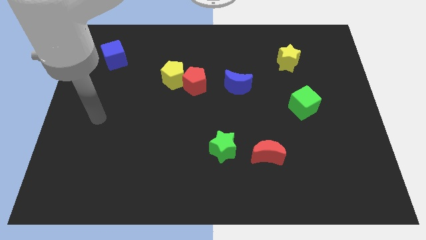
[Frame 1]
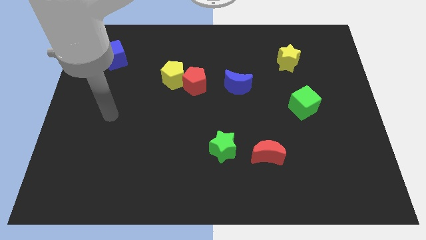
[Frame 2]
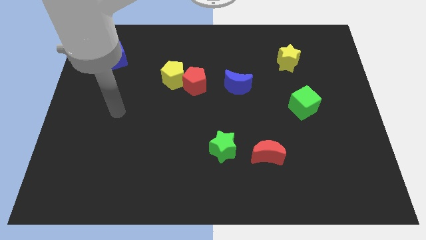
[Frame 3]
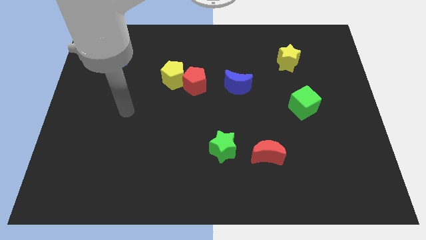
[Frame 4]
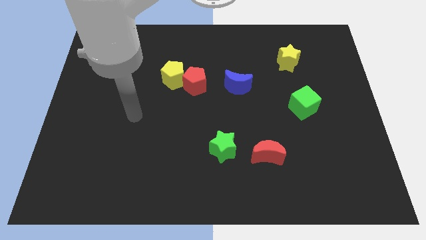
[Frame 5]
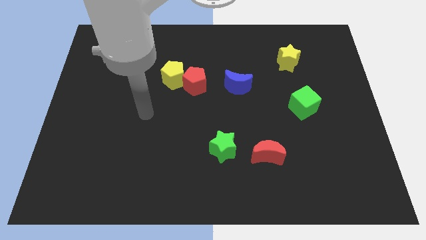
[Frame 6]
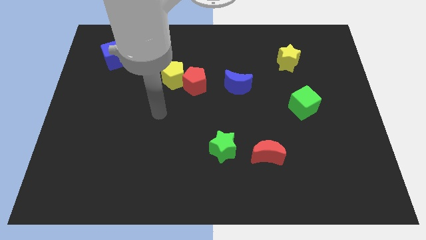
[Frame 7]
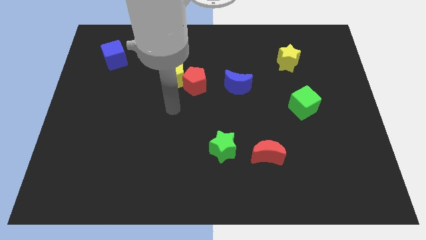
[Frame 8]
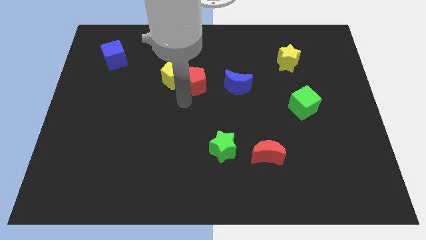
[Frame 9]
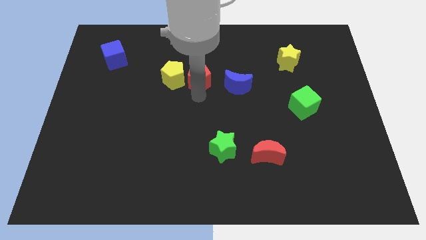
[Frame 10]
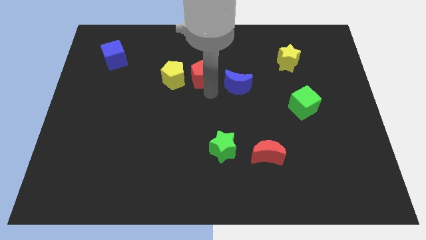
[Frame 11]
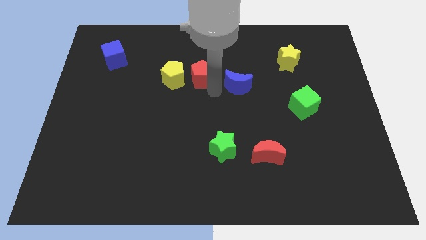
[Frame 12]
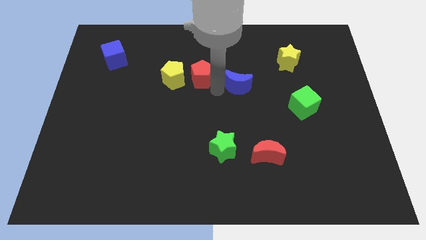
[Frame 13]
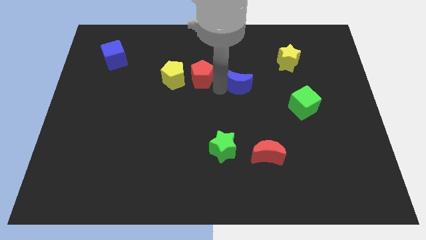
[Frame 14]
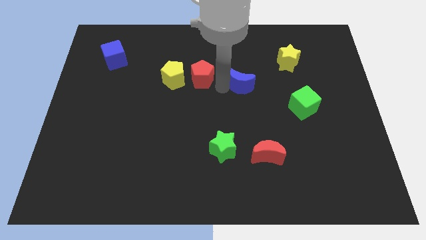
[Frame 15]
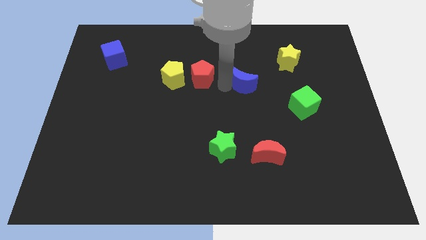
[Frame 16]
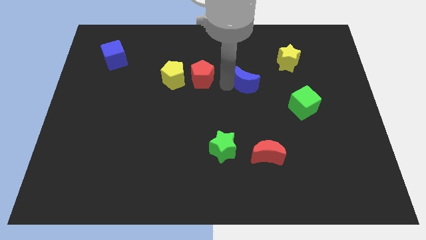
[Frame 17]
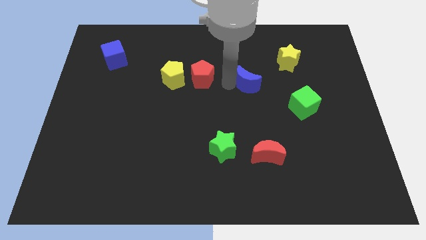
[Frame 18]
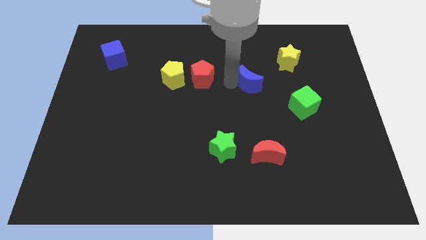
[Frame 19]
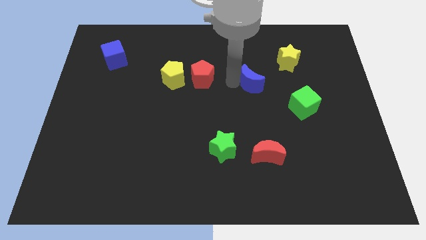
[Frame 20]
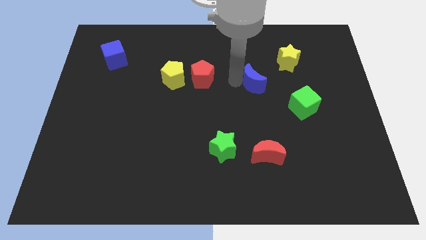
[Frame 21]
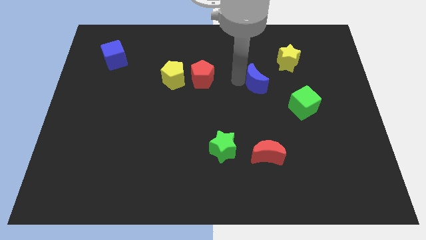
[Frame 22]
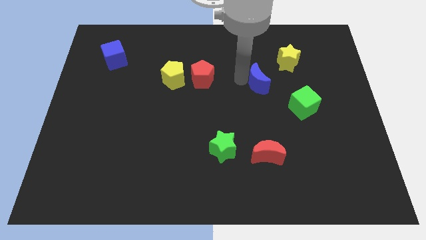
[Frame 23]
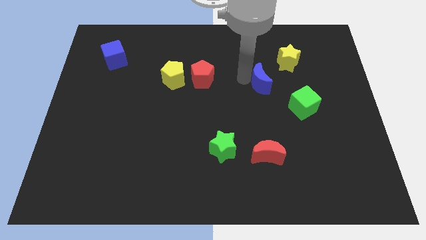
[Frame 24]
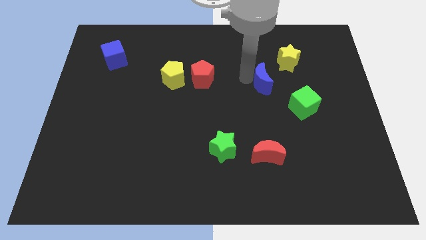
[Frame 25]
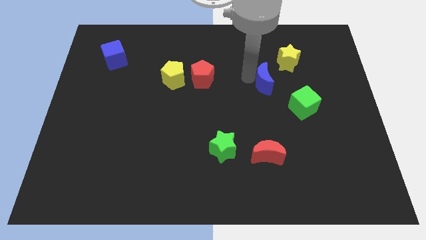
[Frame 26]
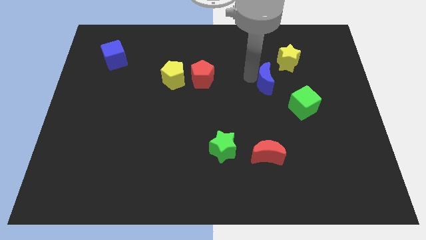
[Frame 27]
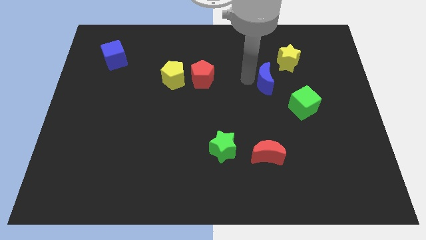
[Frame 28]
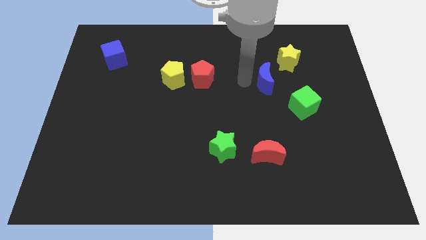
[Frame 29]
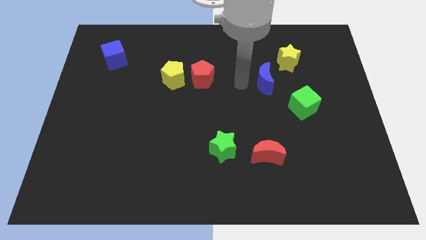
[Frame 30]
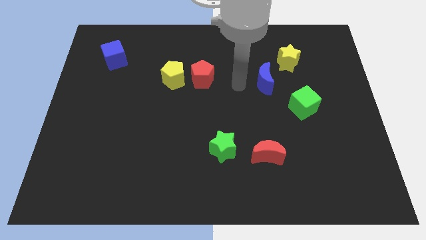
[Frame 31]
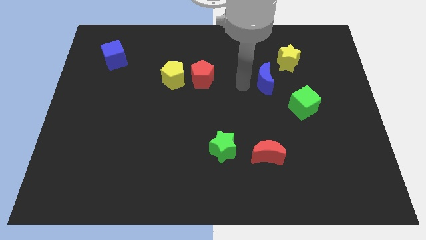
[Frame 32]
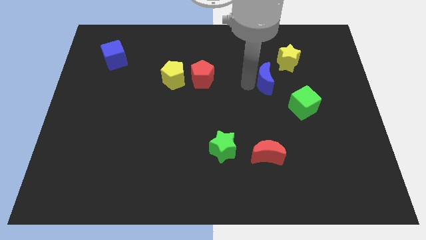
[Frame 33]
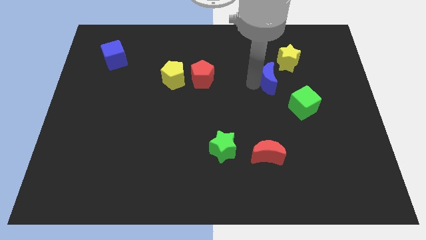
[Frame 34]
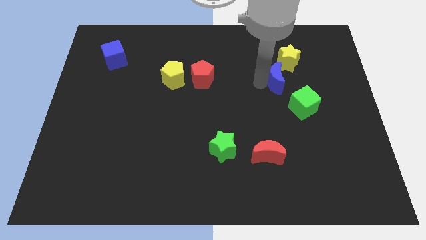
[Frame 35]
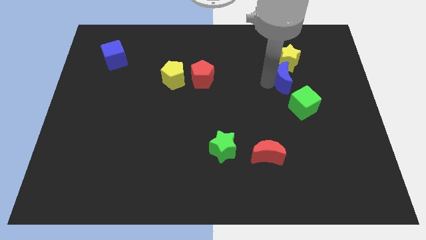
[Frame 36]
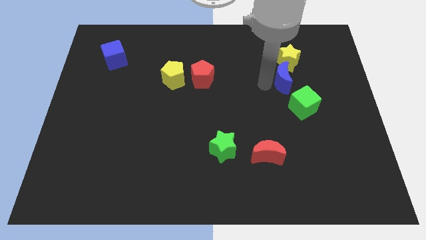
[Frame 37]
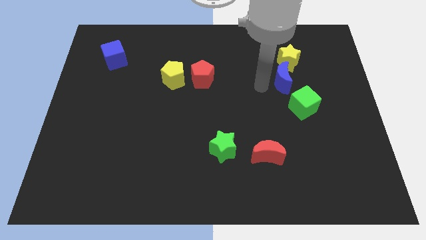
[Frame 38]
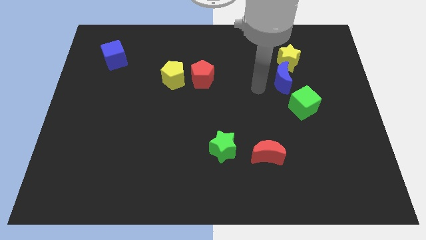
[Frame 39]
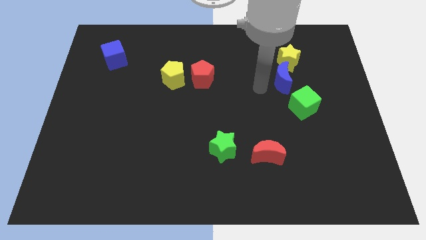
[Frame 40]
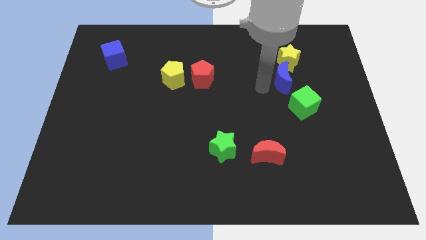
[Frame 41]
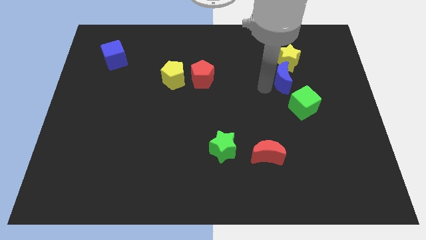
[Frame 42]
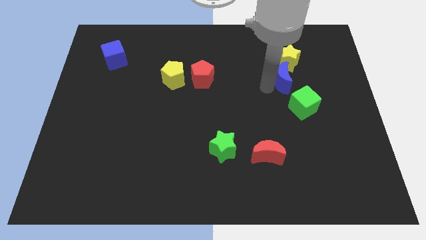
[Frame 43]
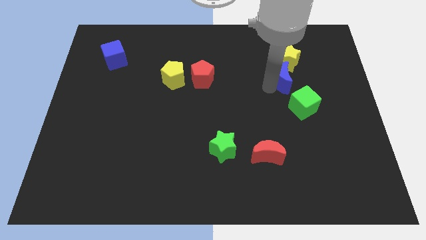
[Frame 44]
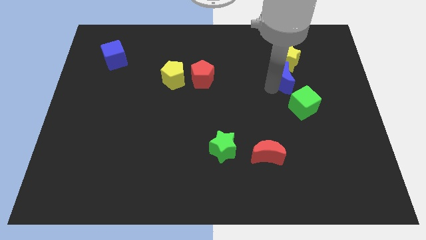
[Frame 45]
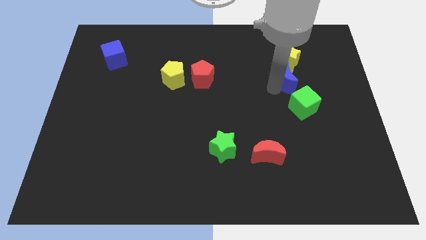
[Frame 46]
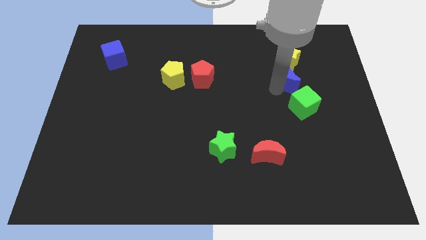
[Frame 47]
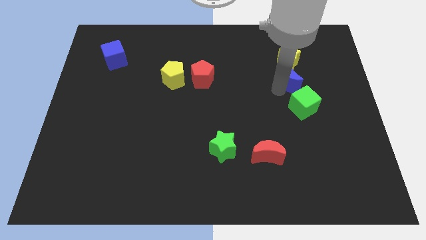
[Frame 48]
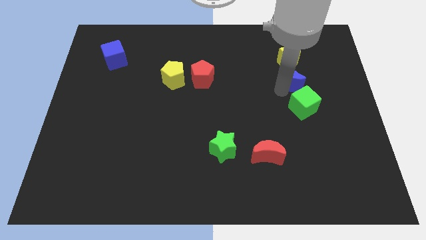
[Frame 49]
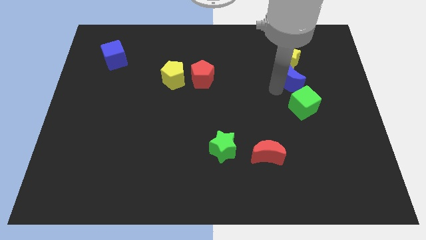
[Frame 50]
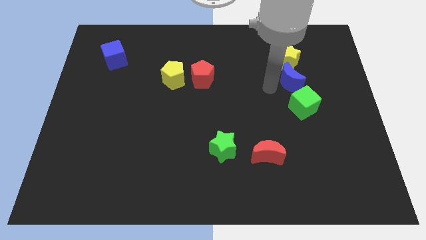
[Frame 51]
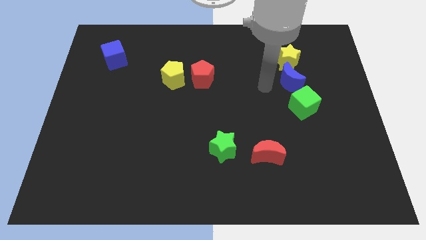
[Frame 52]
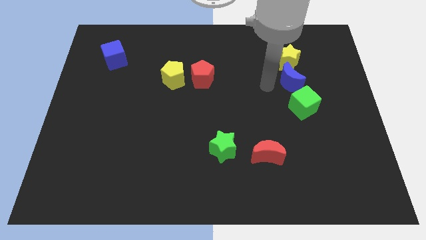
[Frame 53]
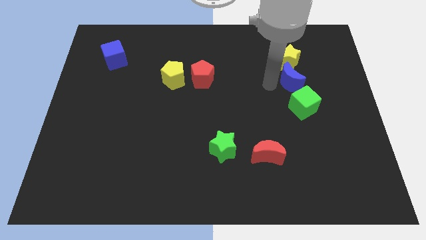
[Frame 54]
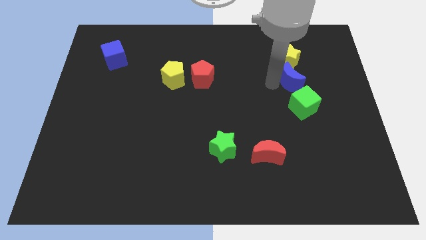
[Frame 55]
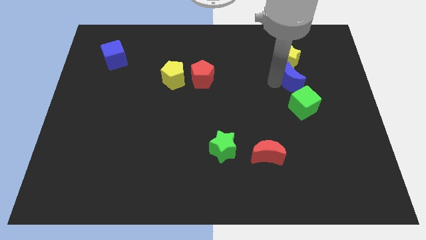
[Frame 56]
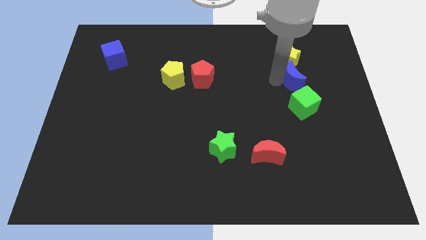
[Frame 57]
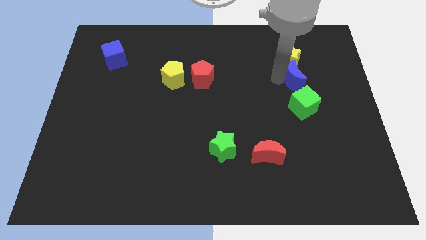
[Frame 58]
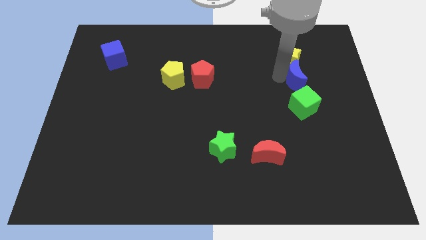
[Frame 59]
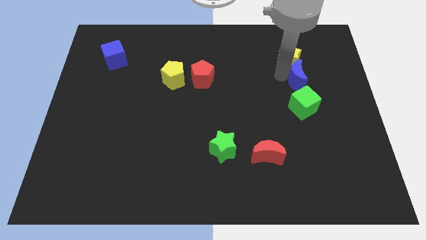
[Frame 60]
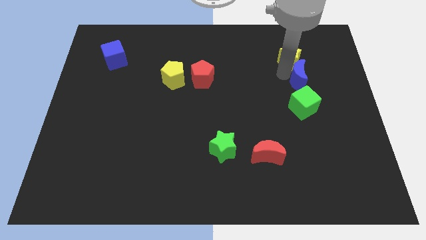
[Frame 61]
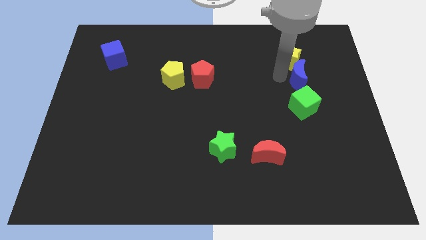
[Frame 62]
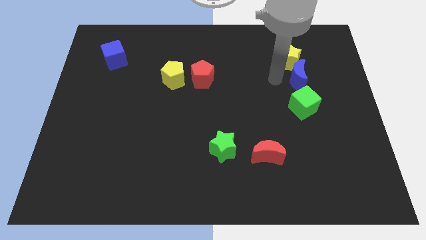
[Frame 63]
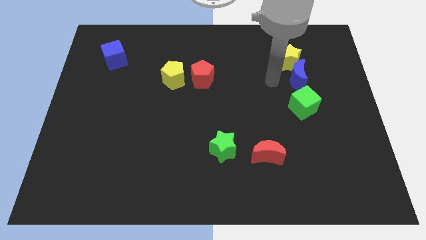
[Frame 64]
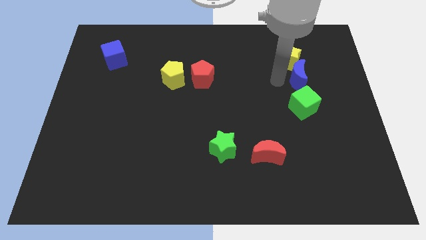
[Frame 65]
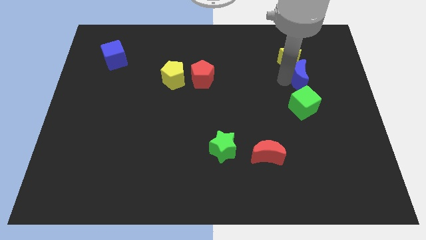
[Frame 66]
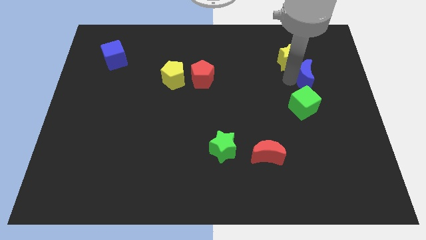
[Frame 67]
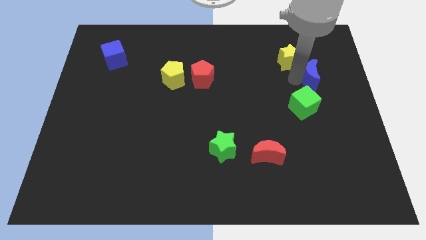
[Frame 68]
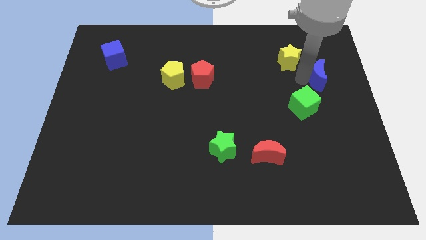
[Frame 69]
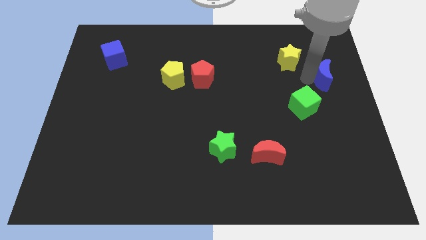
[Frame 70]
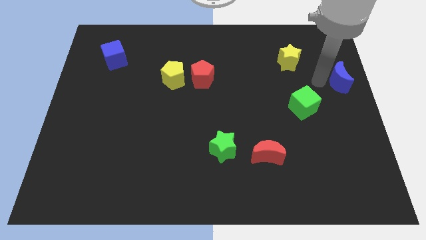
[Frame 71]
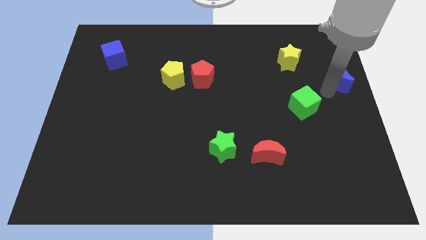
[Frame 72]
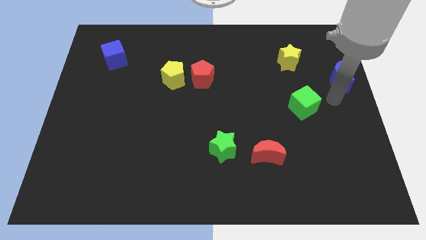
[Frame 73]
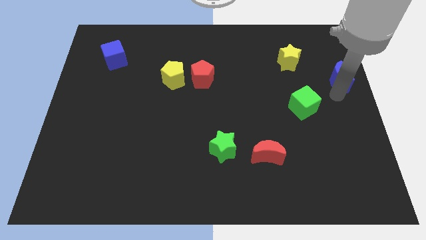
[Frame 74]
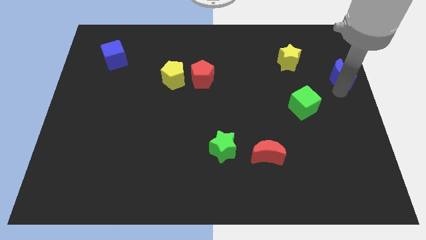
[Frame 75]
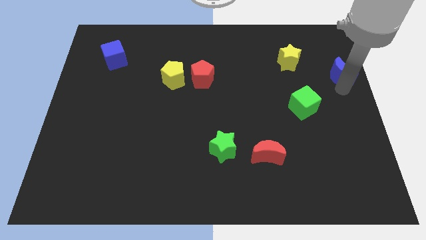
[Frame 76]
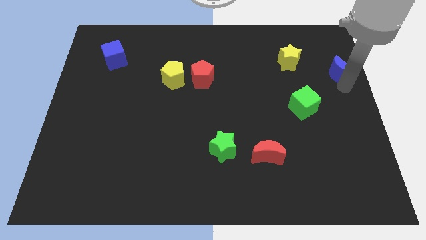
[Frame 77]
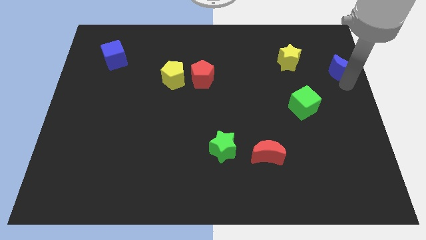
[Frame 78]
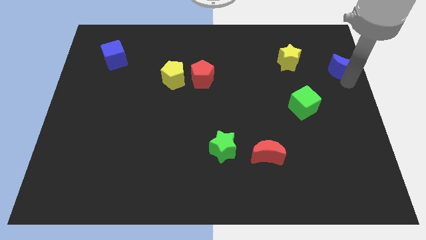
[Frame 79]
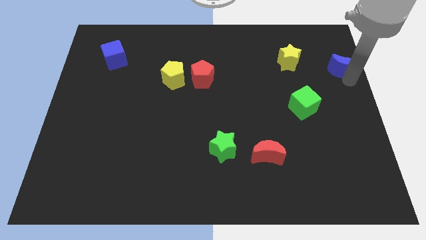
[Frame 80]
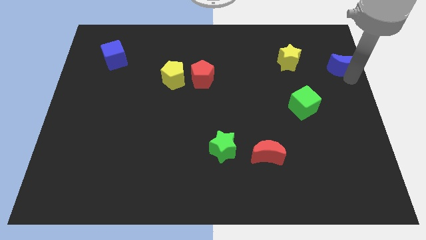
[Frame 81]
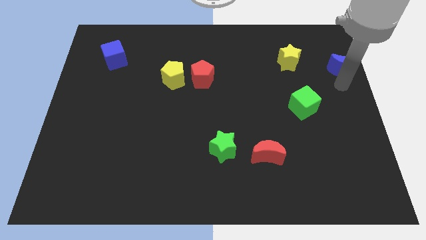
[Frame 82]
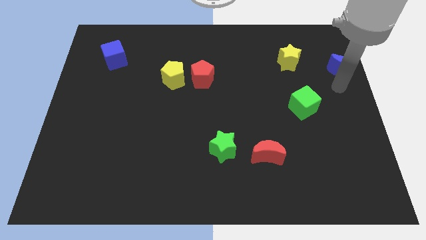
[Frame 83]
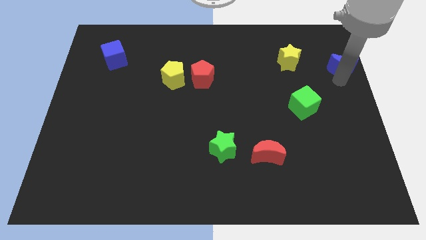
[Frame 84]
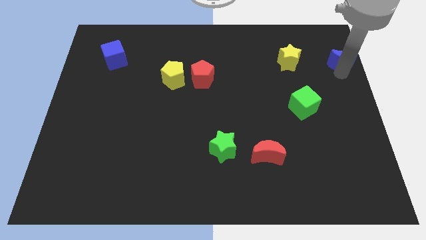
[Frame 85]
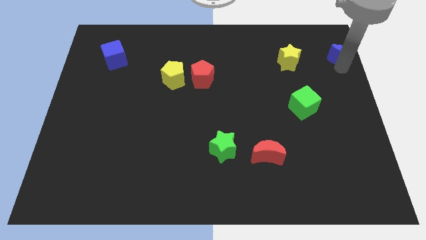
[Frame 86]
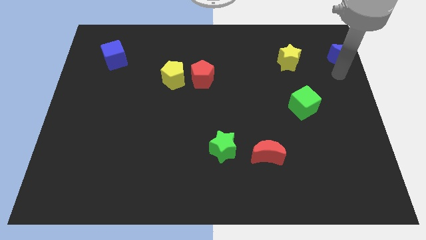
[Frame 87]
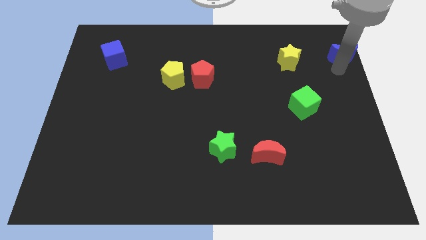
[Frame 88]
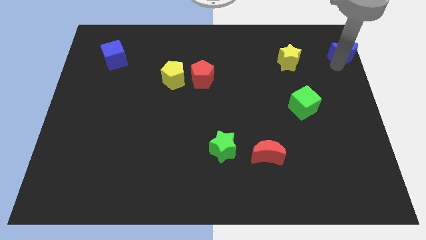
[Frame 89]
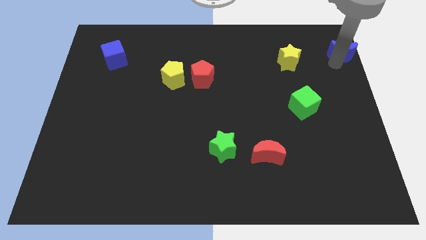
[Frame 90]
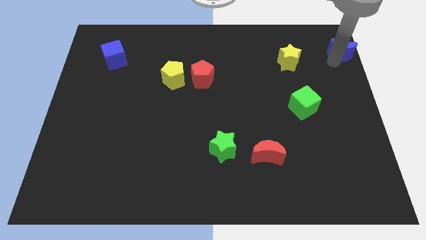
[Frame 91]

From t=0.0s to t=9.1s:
move the blue moon to the top right corner
